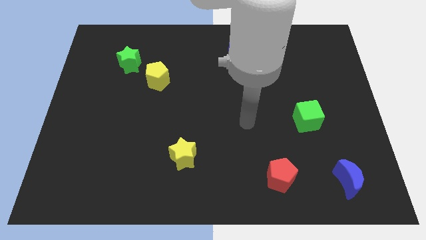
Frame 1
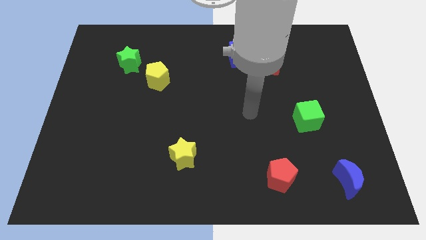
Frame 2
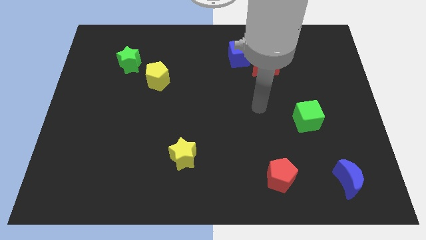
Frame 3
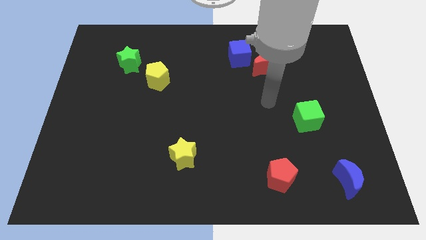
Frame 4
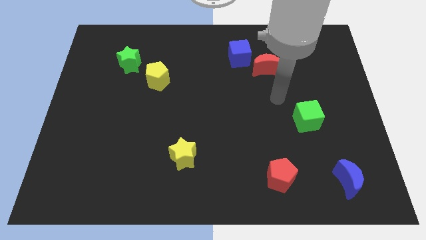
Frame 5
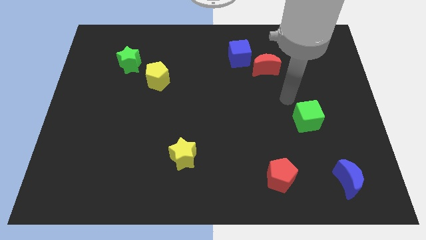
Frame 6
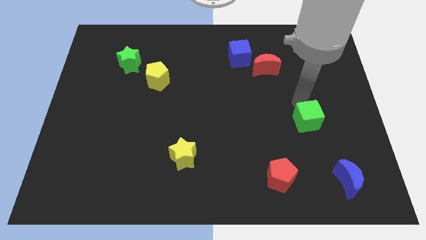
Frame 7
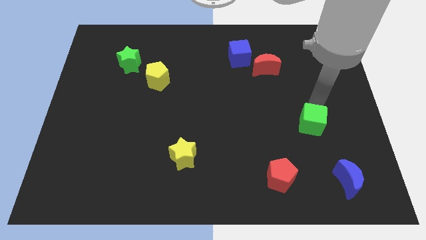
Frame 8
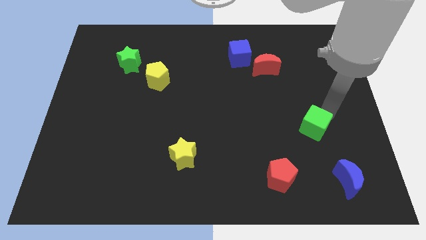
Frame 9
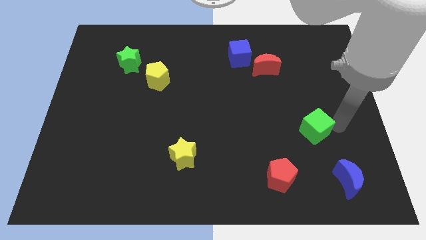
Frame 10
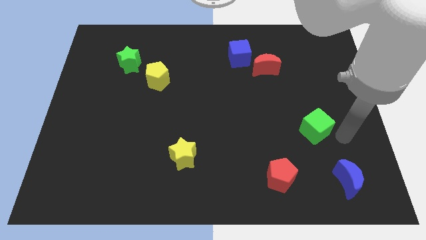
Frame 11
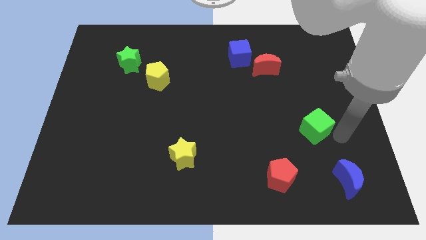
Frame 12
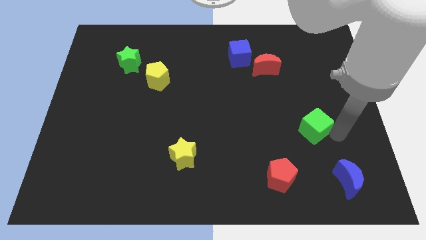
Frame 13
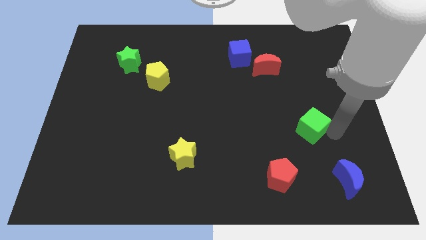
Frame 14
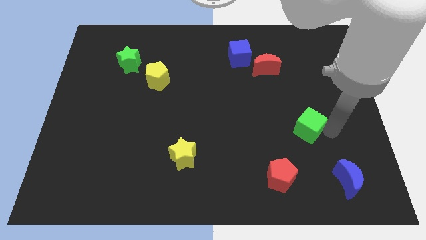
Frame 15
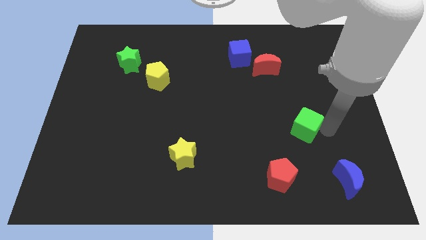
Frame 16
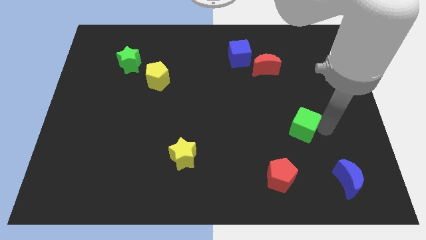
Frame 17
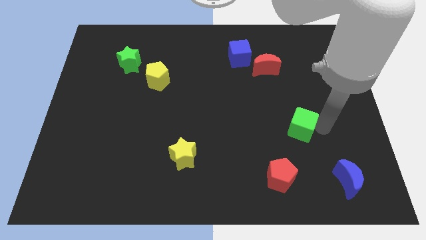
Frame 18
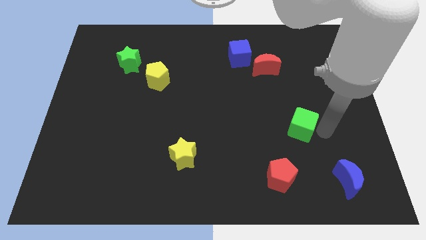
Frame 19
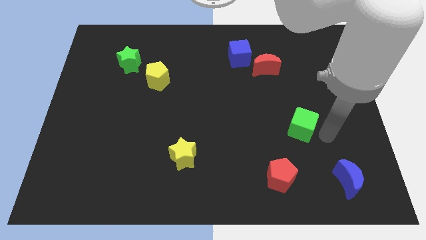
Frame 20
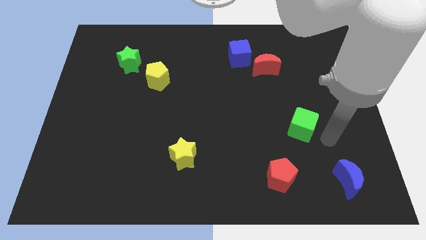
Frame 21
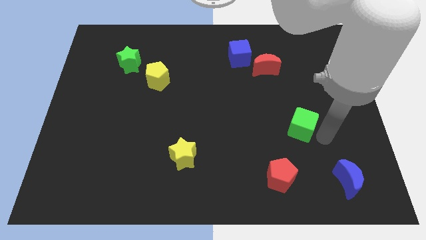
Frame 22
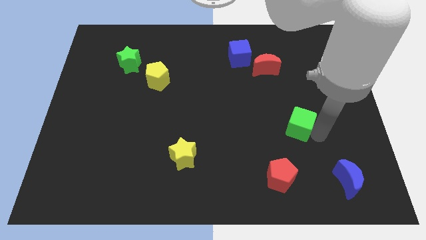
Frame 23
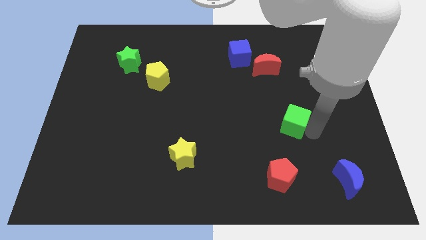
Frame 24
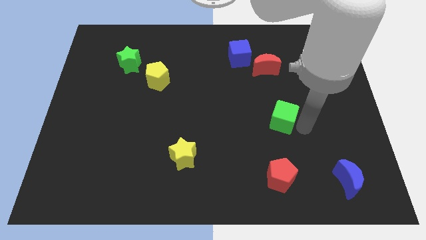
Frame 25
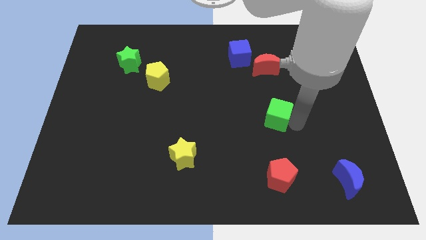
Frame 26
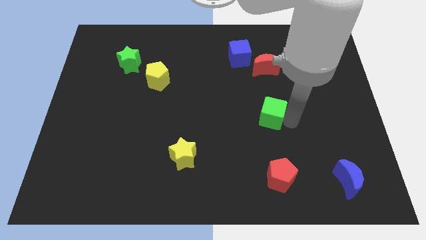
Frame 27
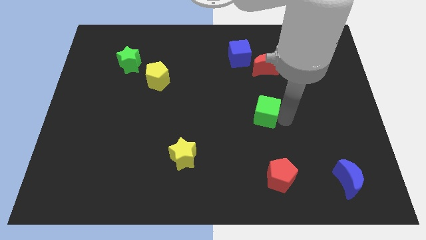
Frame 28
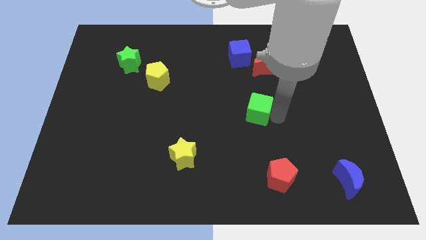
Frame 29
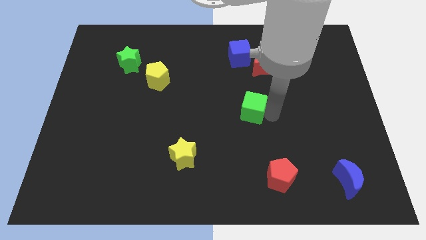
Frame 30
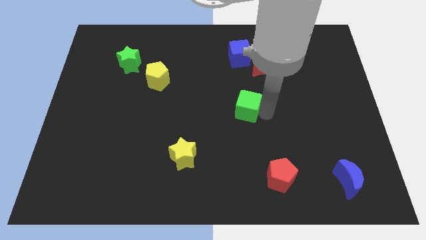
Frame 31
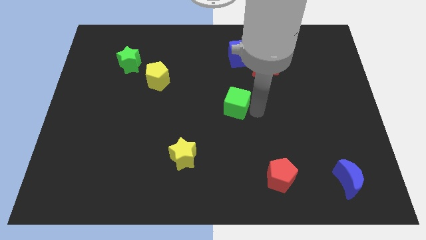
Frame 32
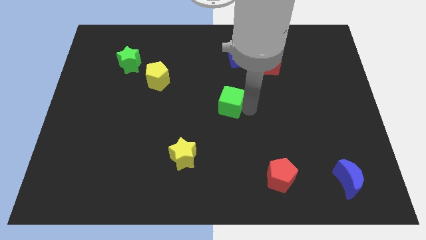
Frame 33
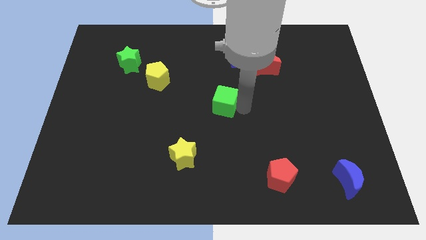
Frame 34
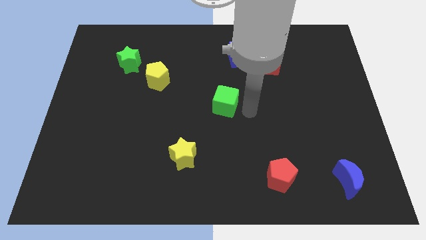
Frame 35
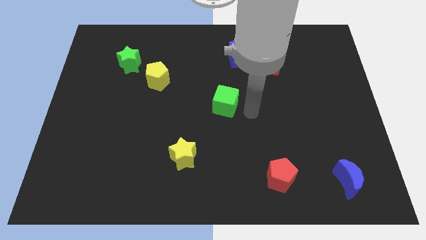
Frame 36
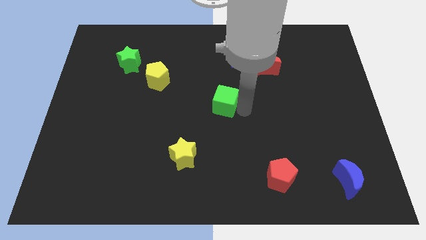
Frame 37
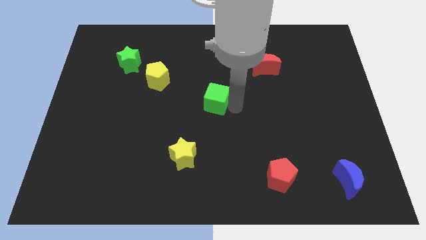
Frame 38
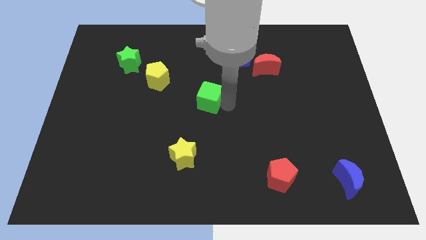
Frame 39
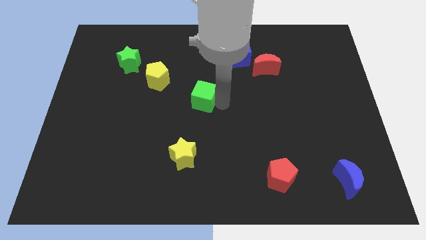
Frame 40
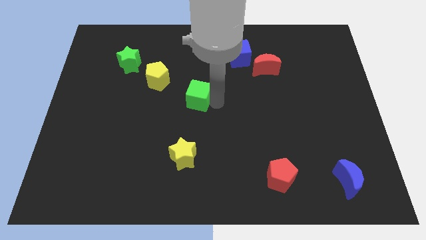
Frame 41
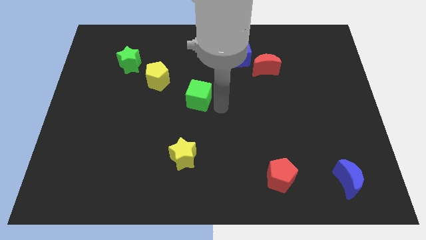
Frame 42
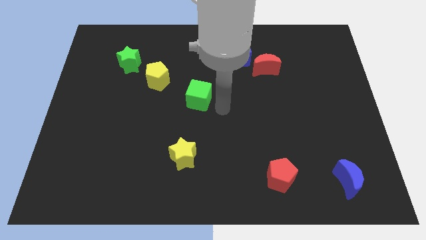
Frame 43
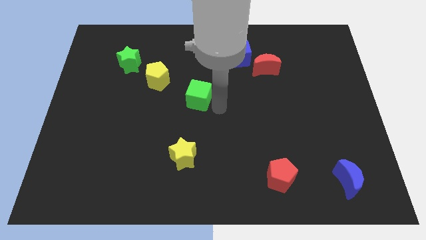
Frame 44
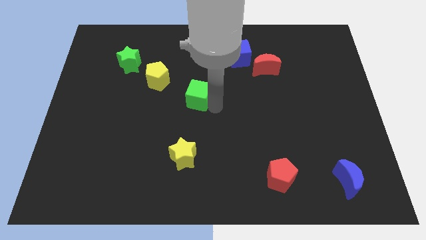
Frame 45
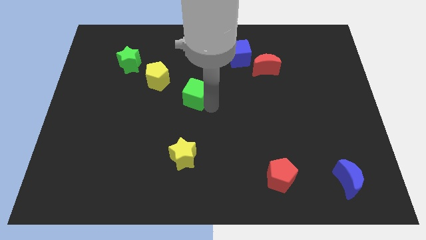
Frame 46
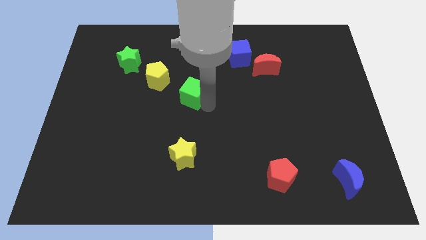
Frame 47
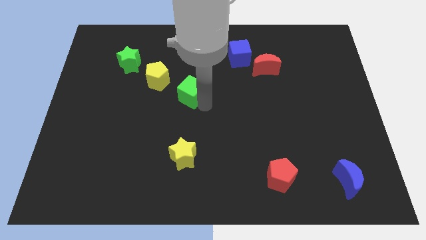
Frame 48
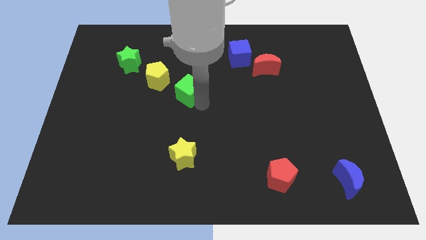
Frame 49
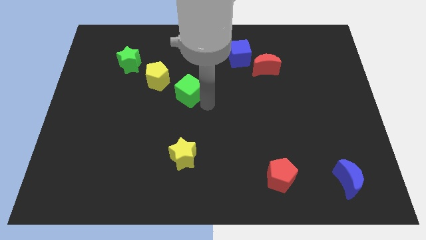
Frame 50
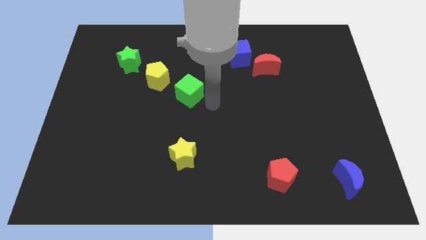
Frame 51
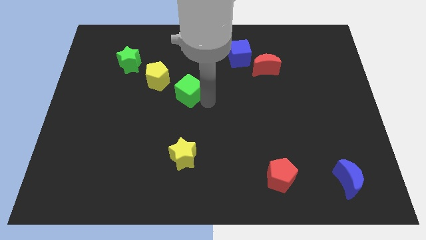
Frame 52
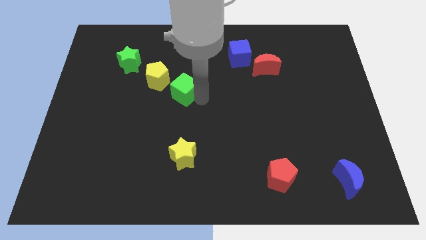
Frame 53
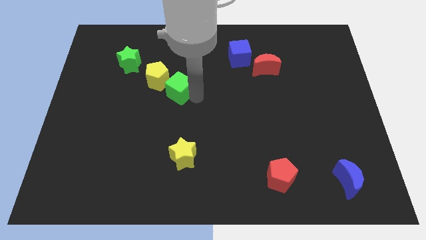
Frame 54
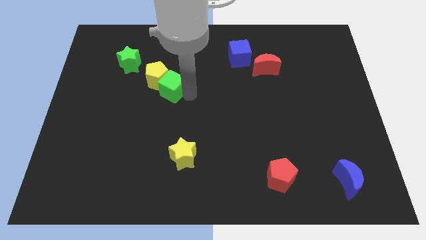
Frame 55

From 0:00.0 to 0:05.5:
put the green cube to the yellow pentagon

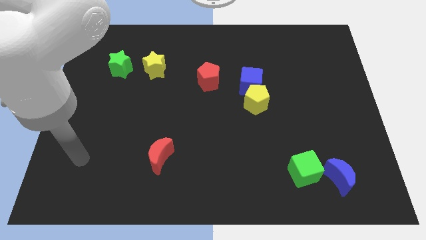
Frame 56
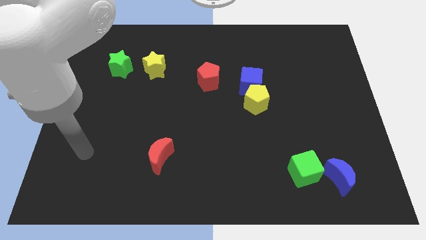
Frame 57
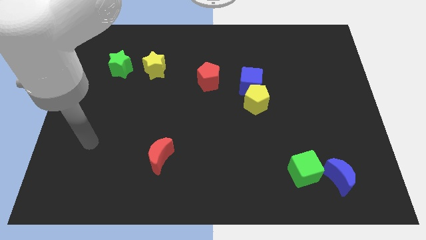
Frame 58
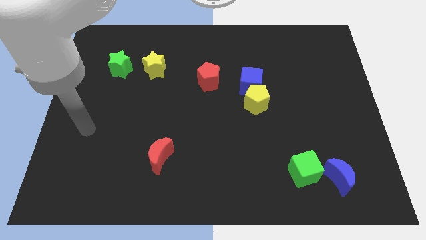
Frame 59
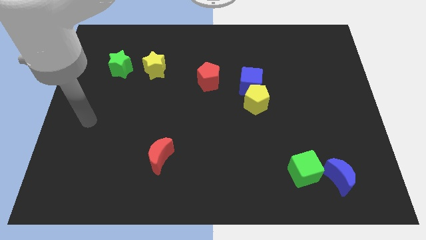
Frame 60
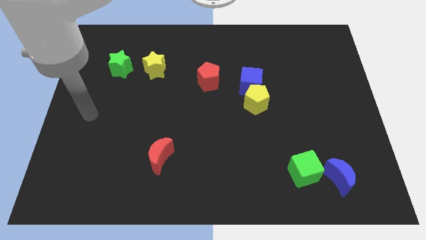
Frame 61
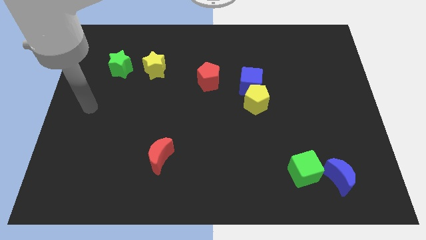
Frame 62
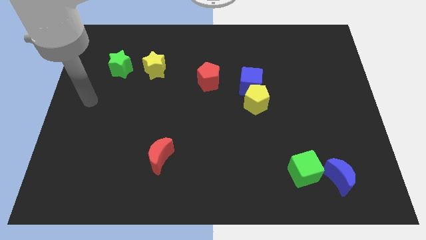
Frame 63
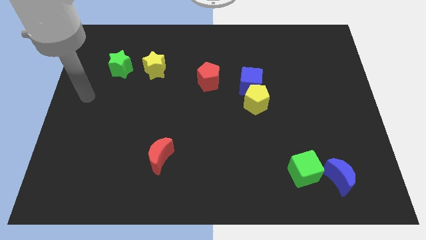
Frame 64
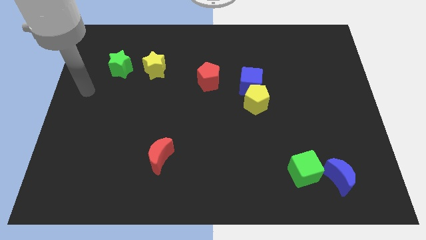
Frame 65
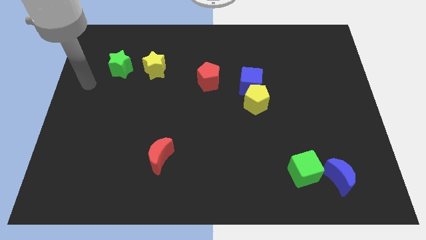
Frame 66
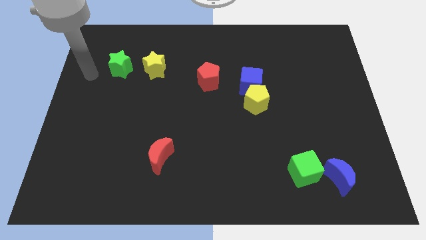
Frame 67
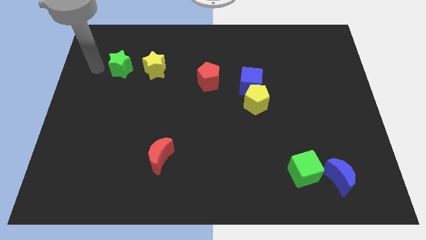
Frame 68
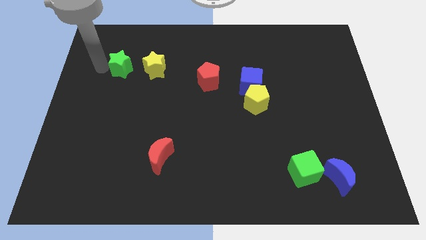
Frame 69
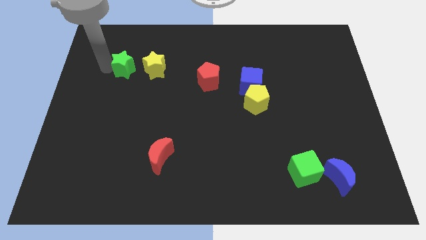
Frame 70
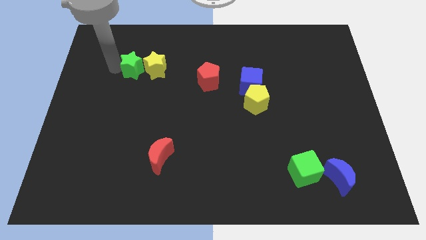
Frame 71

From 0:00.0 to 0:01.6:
put the green star to the yellow star
